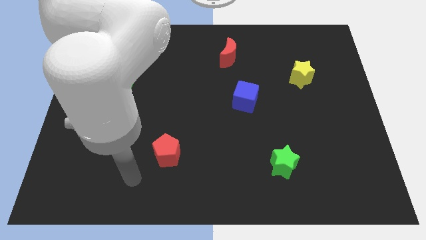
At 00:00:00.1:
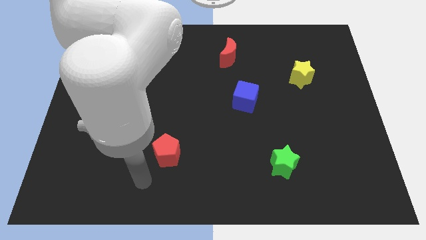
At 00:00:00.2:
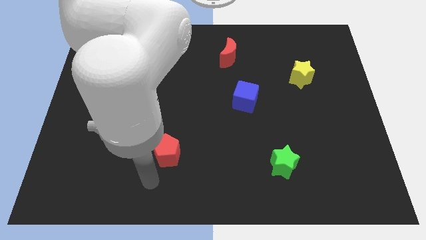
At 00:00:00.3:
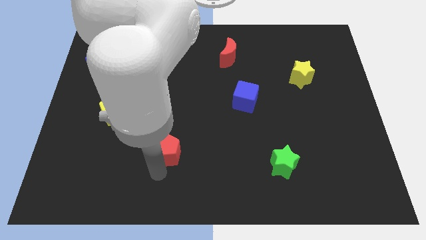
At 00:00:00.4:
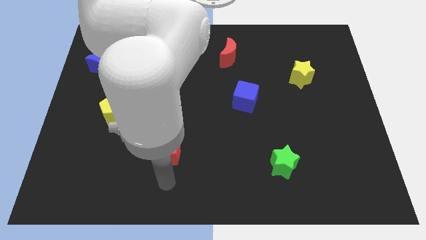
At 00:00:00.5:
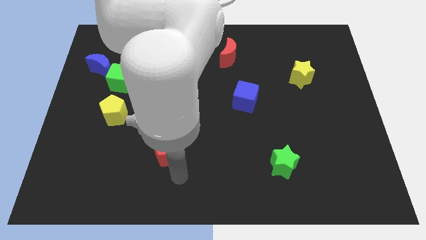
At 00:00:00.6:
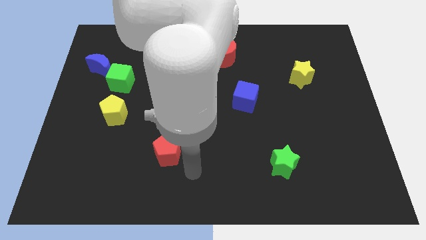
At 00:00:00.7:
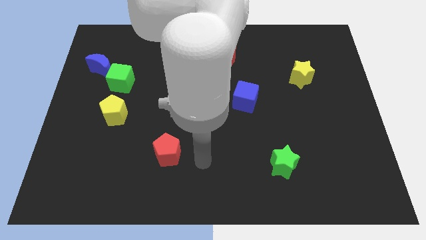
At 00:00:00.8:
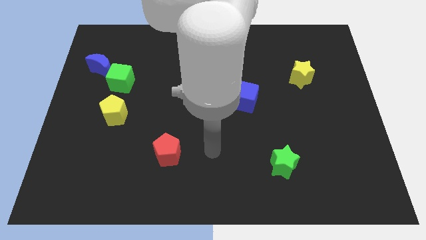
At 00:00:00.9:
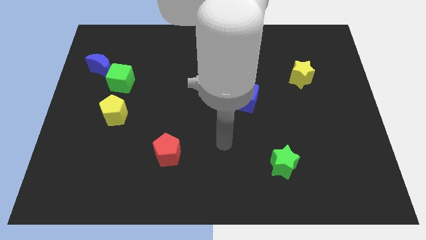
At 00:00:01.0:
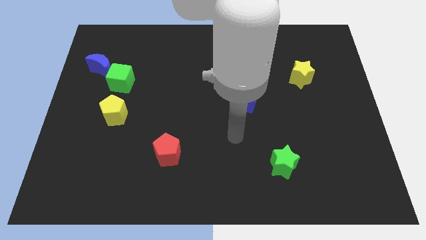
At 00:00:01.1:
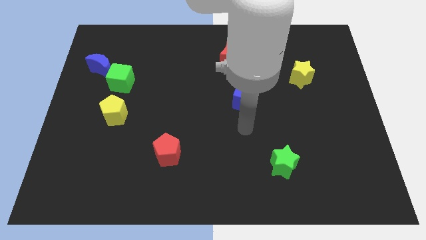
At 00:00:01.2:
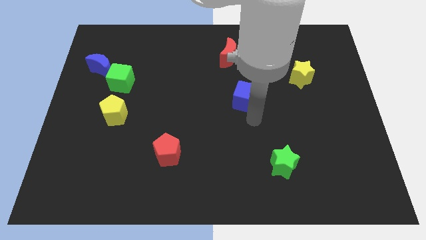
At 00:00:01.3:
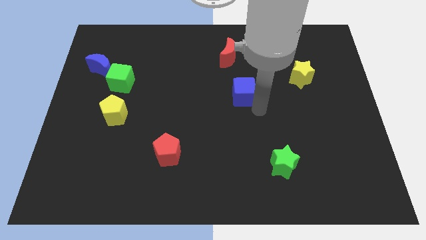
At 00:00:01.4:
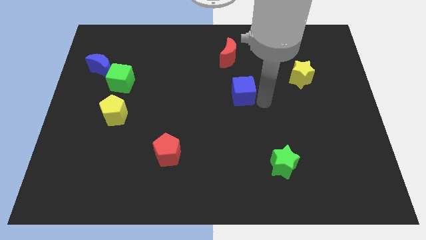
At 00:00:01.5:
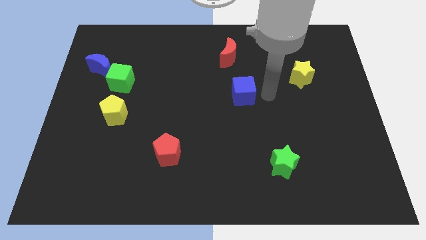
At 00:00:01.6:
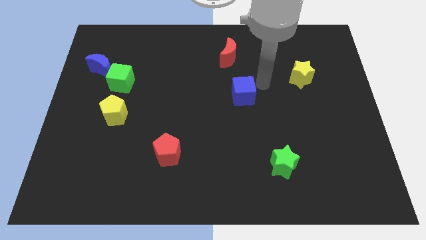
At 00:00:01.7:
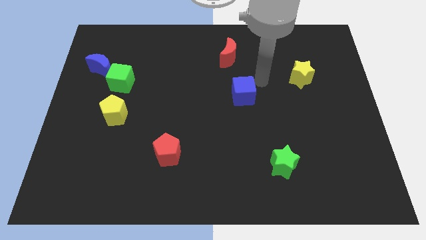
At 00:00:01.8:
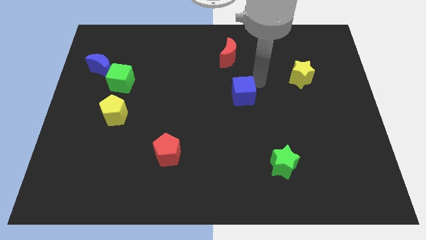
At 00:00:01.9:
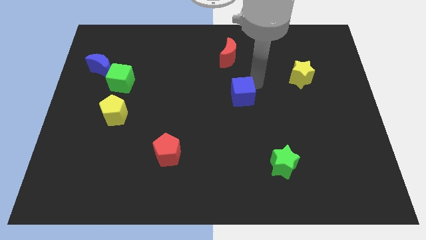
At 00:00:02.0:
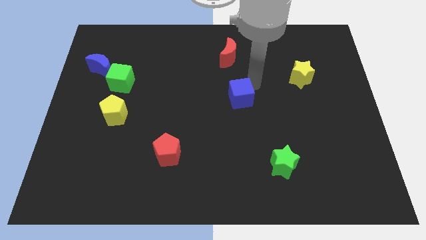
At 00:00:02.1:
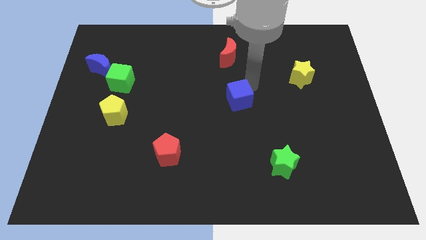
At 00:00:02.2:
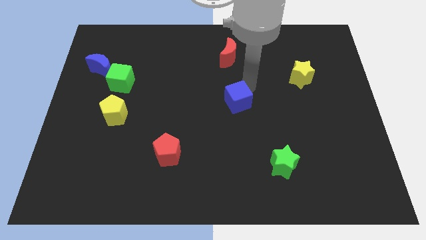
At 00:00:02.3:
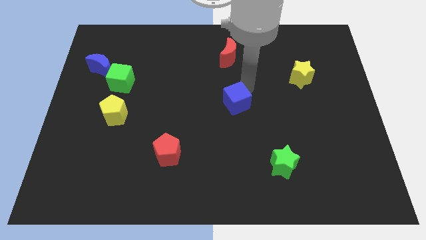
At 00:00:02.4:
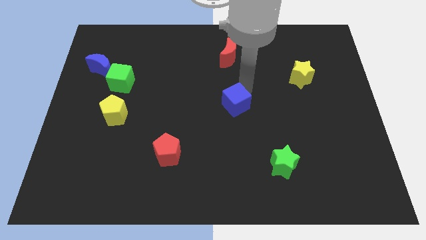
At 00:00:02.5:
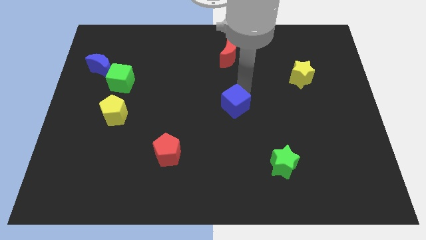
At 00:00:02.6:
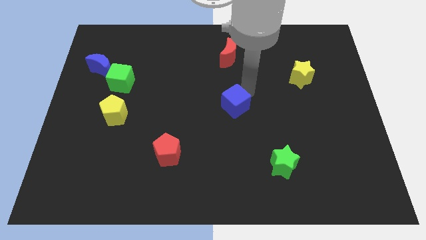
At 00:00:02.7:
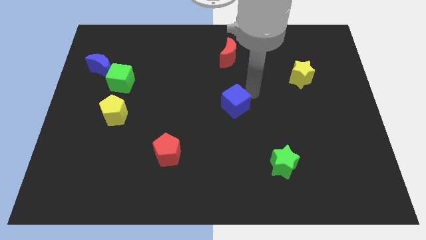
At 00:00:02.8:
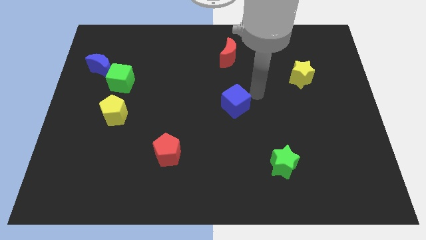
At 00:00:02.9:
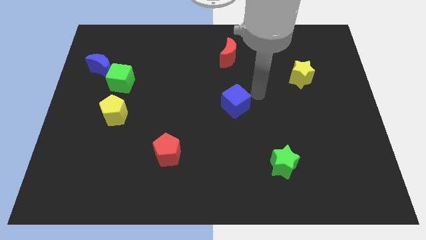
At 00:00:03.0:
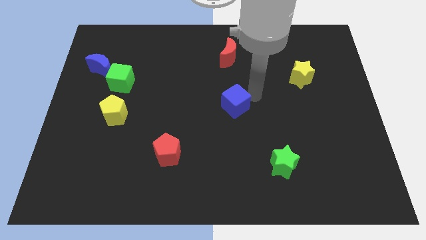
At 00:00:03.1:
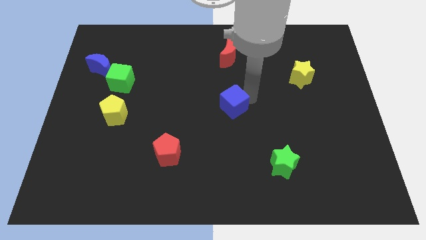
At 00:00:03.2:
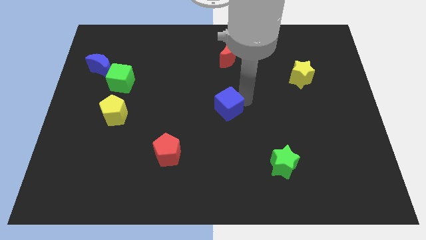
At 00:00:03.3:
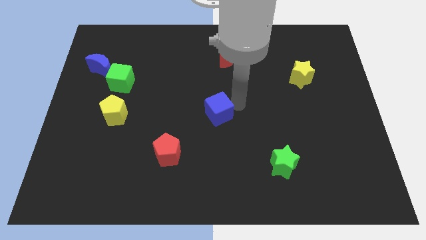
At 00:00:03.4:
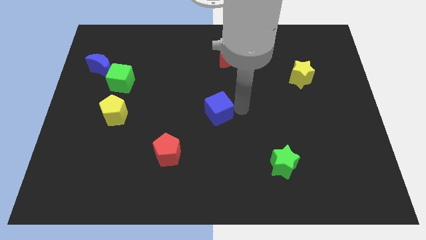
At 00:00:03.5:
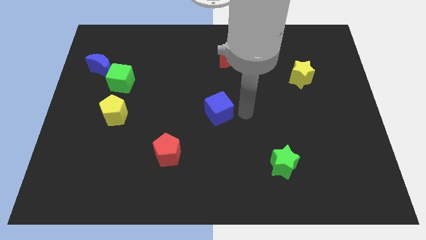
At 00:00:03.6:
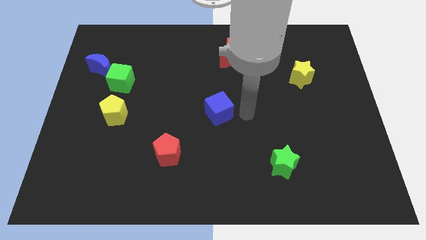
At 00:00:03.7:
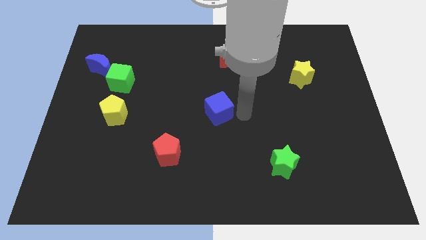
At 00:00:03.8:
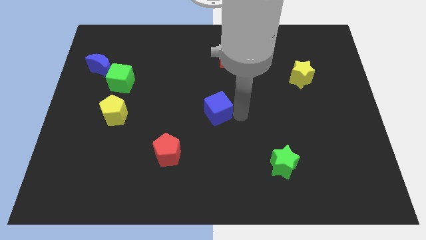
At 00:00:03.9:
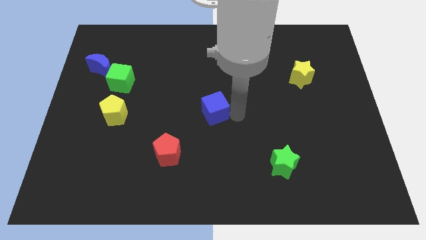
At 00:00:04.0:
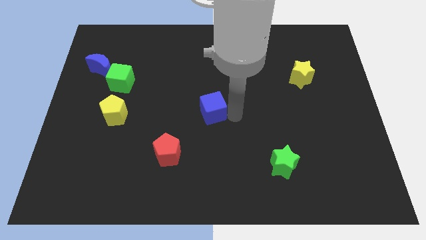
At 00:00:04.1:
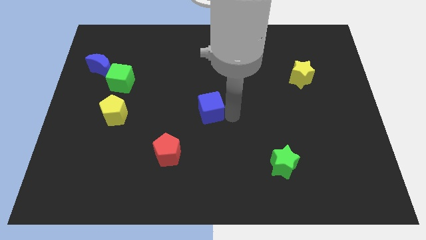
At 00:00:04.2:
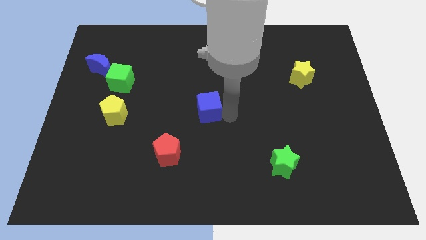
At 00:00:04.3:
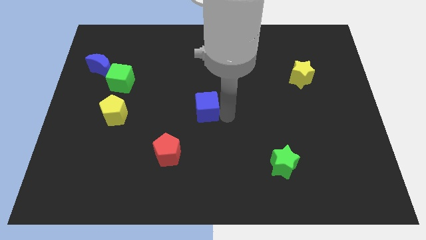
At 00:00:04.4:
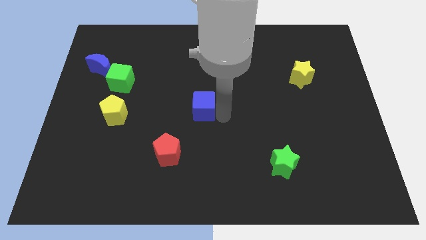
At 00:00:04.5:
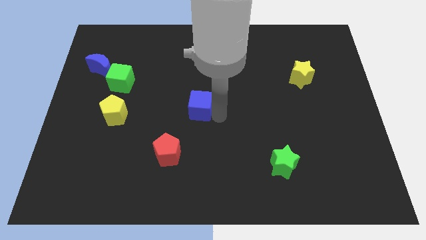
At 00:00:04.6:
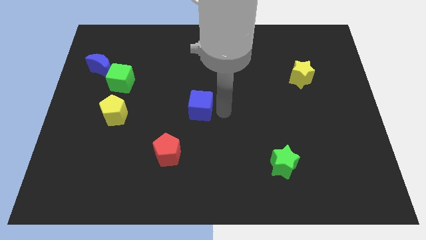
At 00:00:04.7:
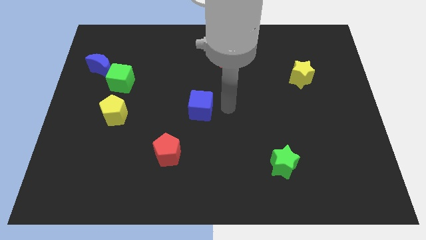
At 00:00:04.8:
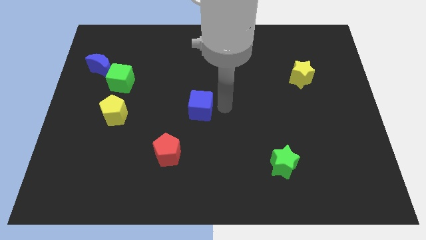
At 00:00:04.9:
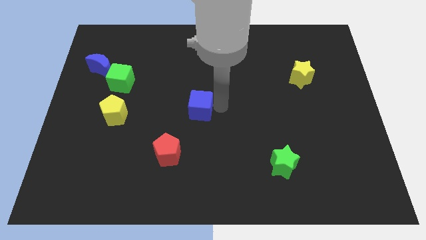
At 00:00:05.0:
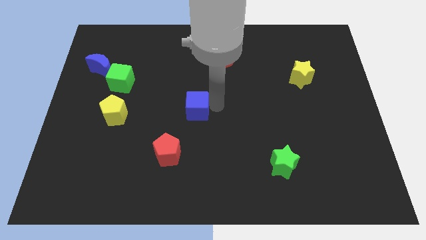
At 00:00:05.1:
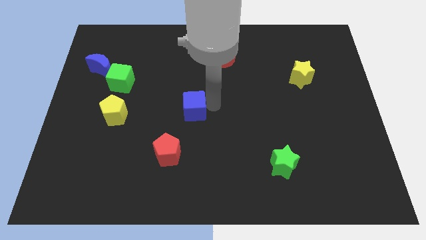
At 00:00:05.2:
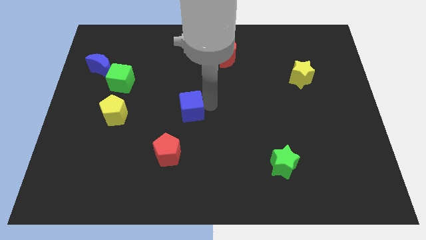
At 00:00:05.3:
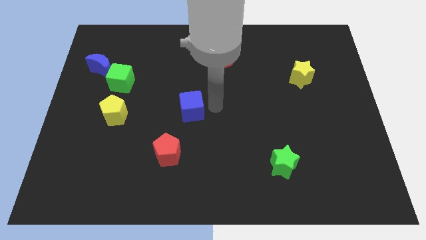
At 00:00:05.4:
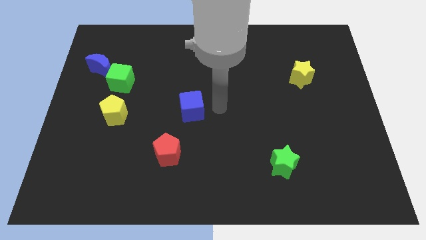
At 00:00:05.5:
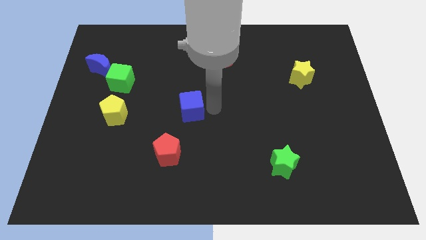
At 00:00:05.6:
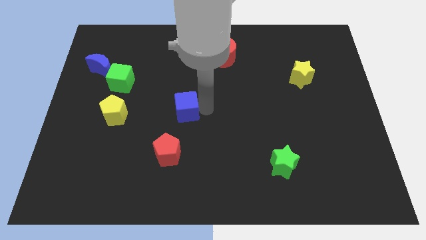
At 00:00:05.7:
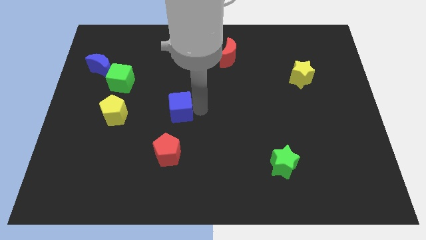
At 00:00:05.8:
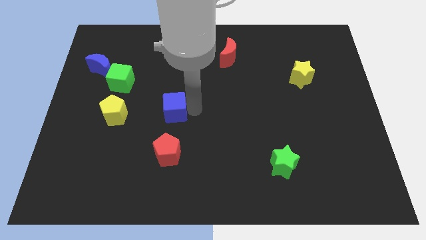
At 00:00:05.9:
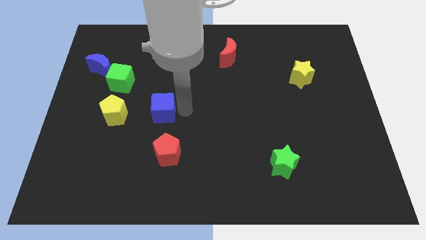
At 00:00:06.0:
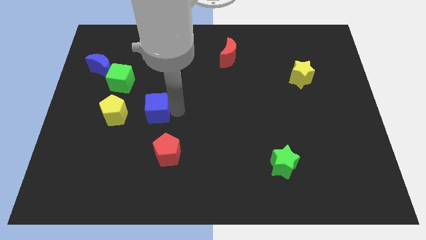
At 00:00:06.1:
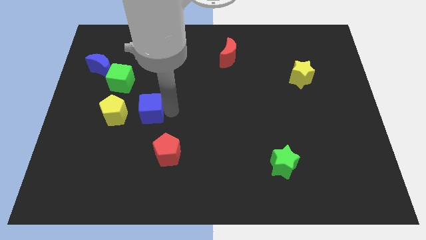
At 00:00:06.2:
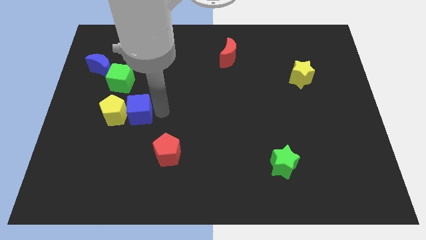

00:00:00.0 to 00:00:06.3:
move the blue cube close to the yellow pentagon
